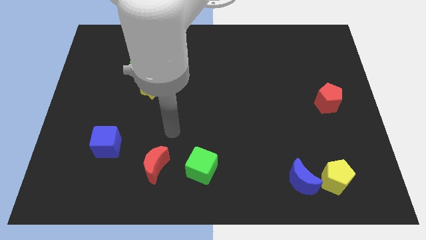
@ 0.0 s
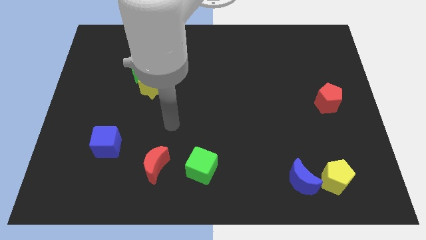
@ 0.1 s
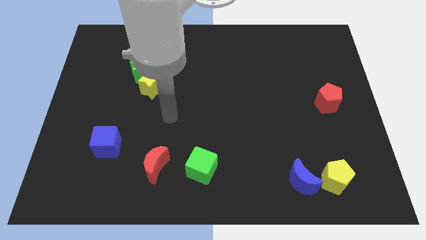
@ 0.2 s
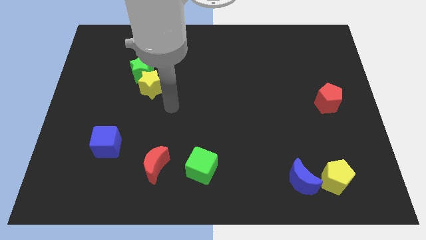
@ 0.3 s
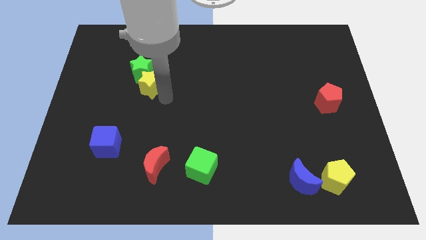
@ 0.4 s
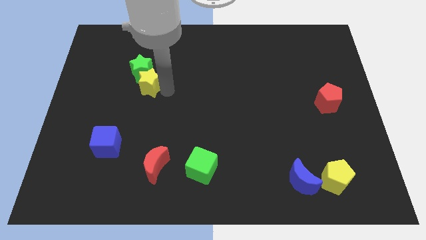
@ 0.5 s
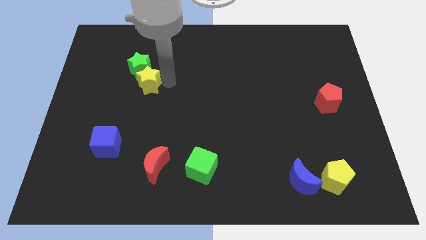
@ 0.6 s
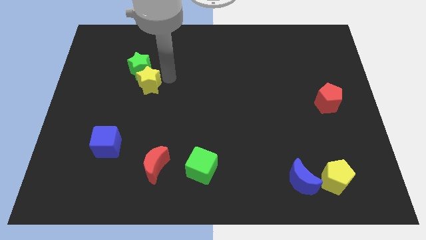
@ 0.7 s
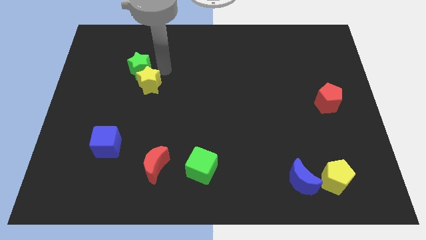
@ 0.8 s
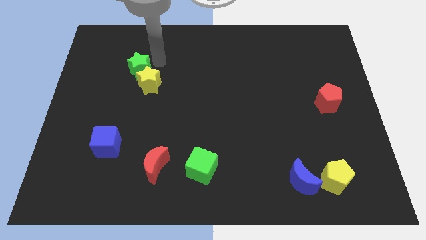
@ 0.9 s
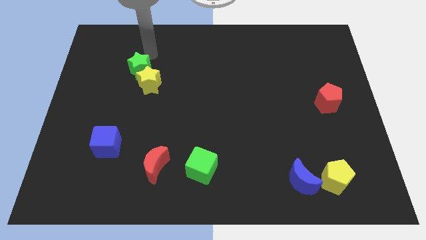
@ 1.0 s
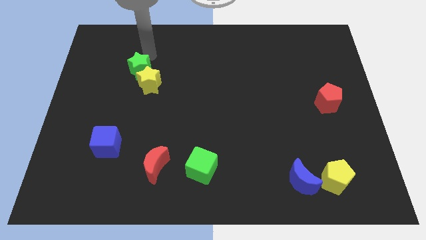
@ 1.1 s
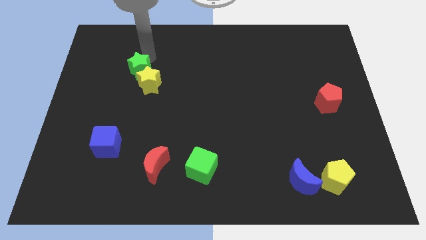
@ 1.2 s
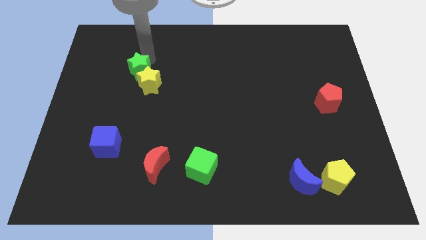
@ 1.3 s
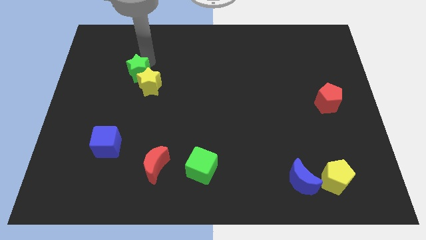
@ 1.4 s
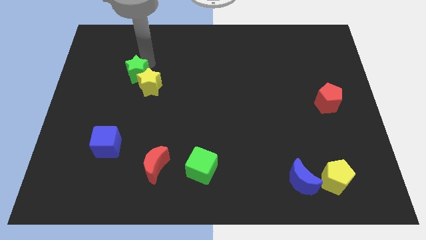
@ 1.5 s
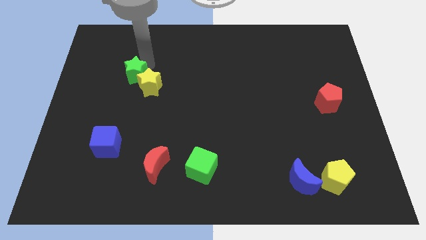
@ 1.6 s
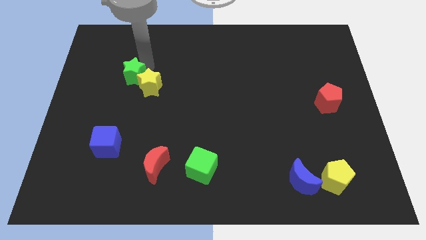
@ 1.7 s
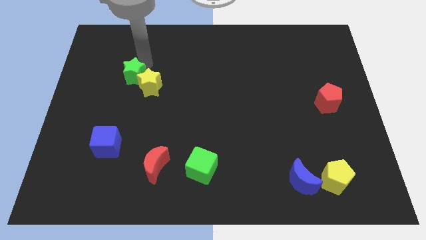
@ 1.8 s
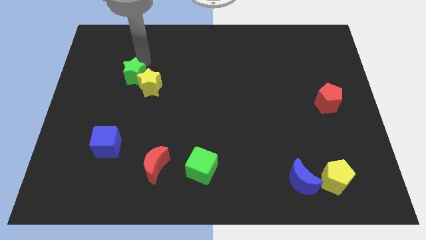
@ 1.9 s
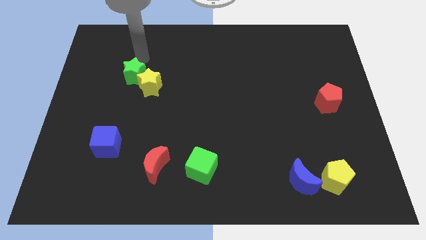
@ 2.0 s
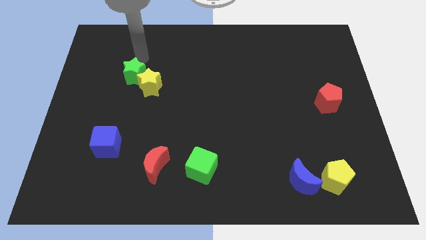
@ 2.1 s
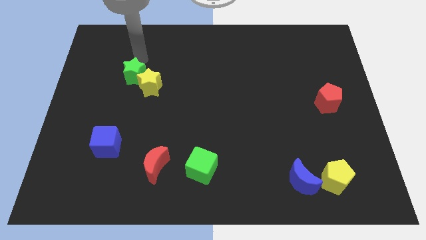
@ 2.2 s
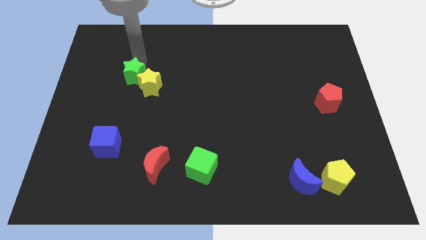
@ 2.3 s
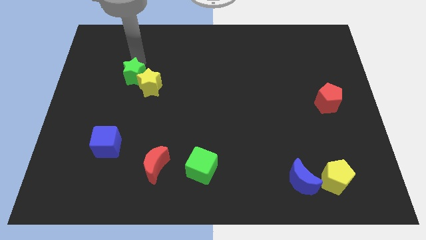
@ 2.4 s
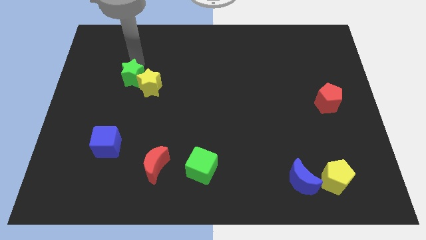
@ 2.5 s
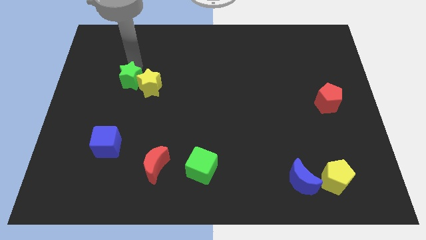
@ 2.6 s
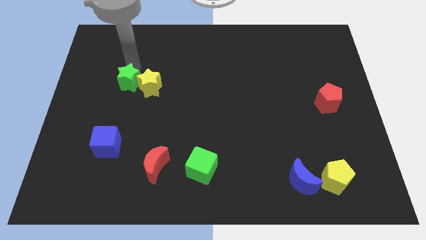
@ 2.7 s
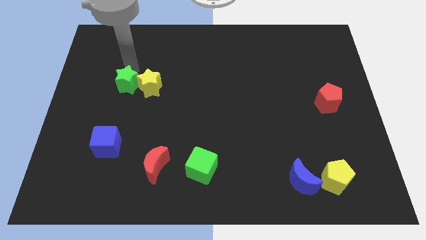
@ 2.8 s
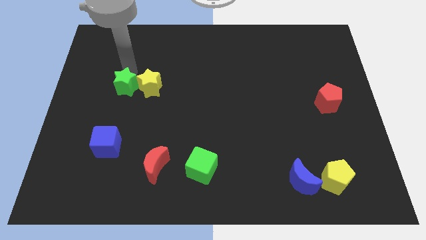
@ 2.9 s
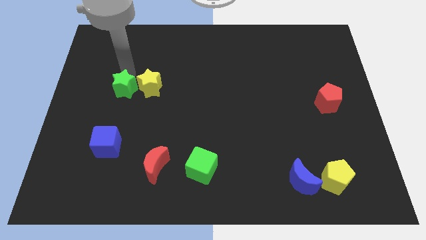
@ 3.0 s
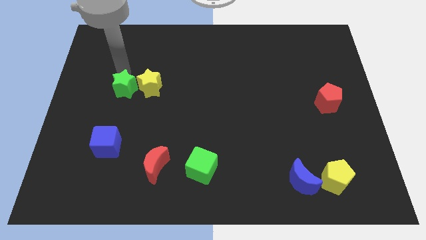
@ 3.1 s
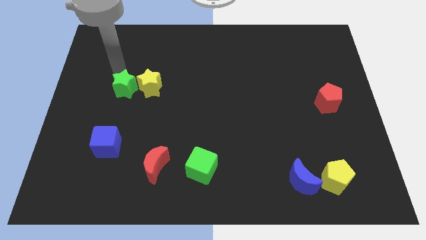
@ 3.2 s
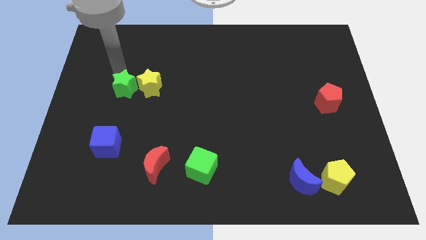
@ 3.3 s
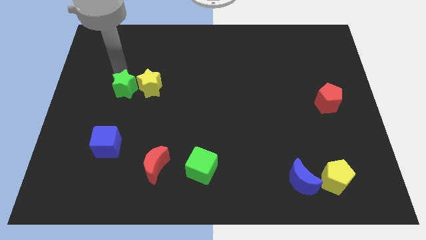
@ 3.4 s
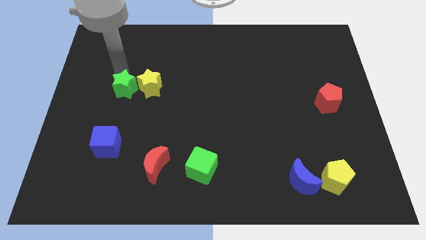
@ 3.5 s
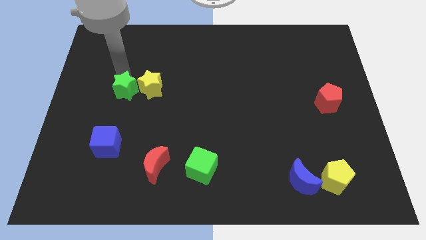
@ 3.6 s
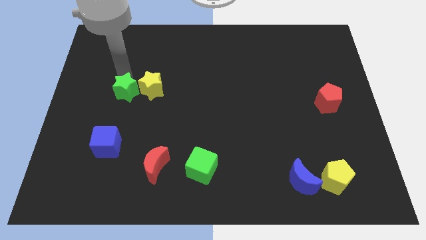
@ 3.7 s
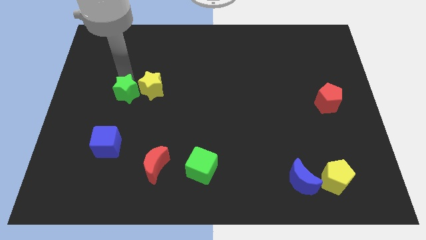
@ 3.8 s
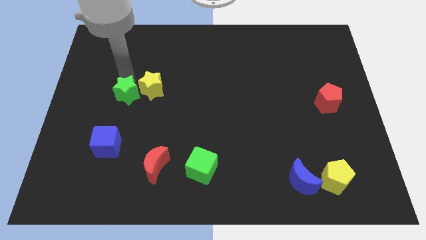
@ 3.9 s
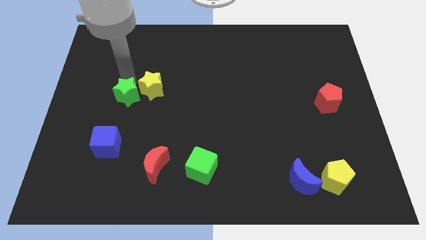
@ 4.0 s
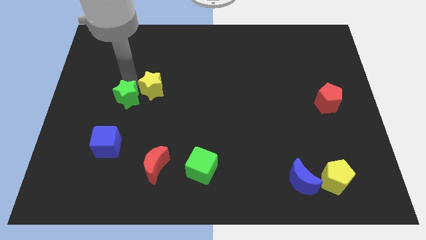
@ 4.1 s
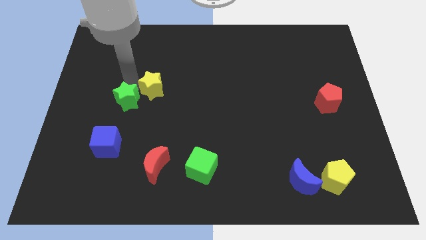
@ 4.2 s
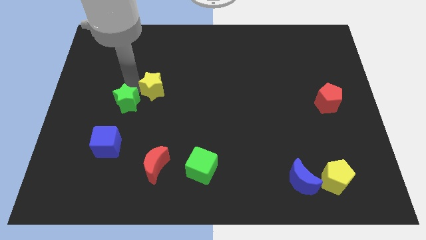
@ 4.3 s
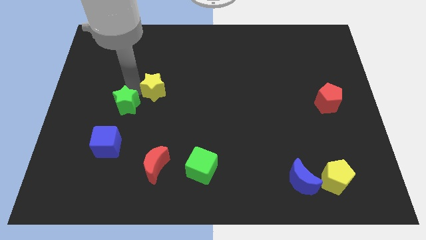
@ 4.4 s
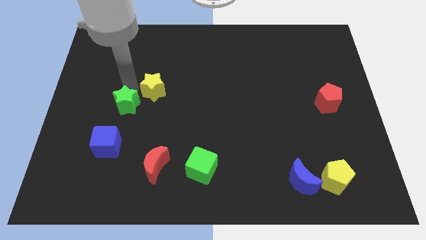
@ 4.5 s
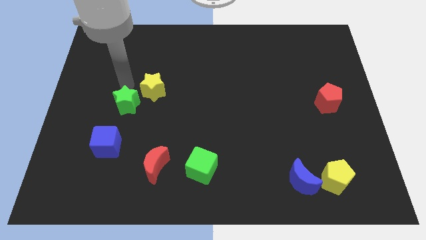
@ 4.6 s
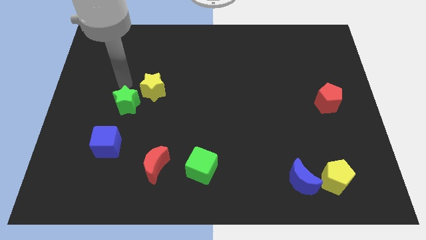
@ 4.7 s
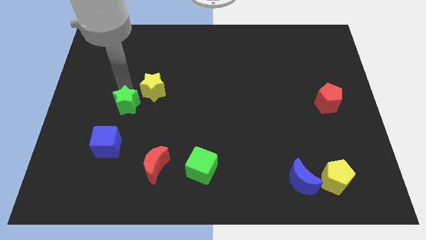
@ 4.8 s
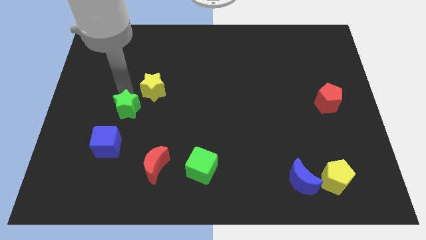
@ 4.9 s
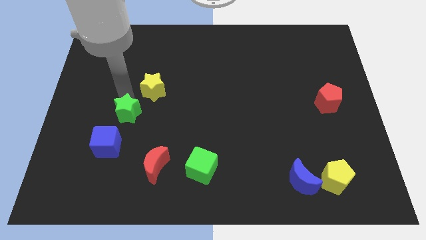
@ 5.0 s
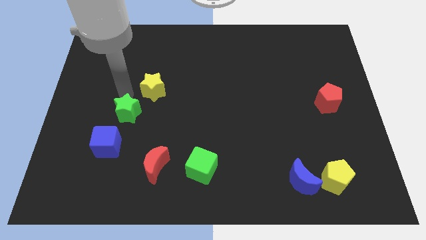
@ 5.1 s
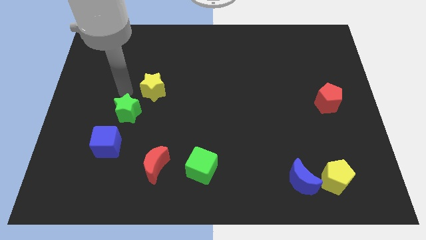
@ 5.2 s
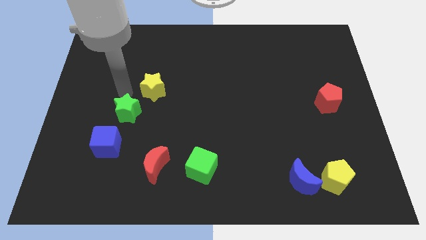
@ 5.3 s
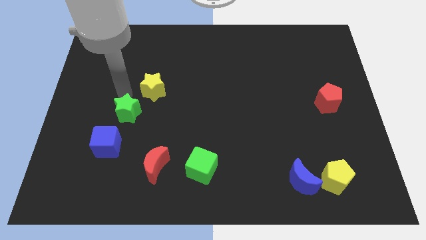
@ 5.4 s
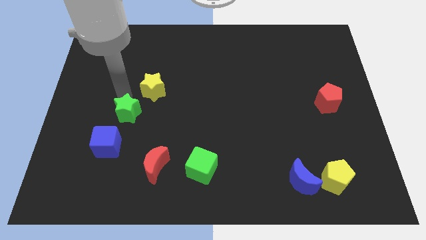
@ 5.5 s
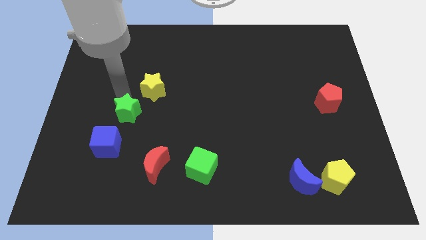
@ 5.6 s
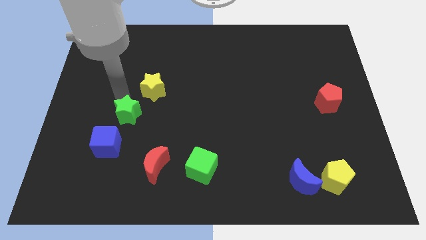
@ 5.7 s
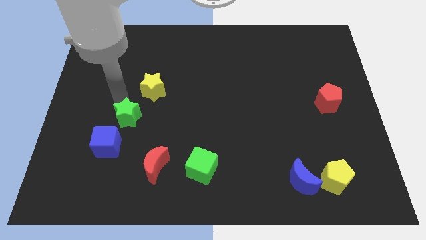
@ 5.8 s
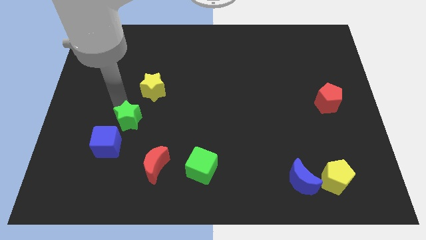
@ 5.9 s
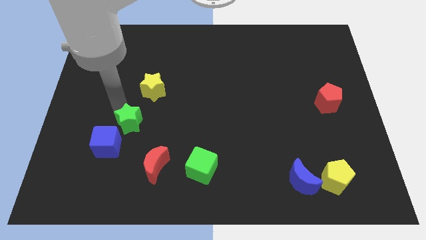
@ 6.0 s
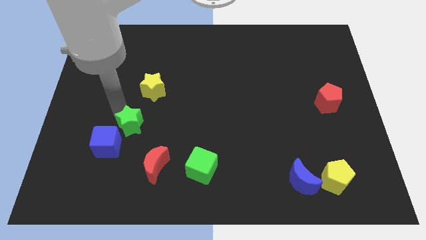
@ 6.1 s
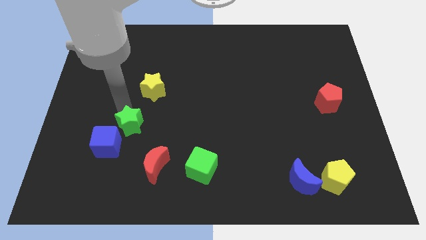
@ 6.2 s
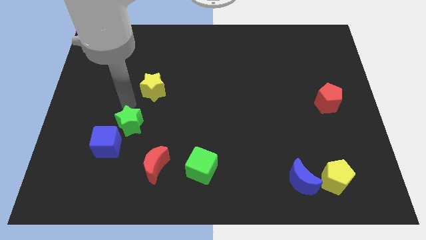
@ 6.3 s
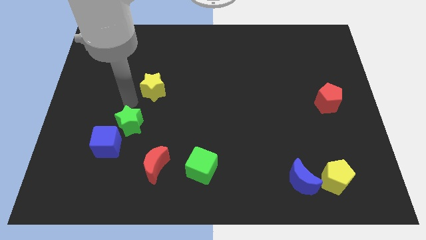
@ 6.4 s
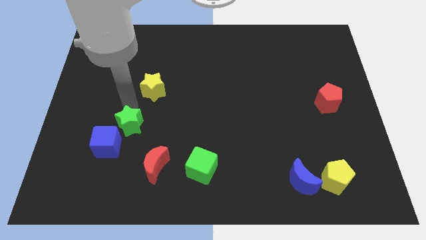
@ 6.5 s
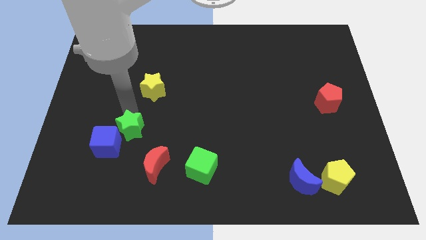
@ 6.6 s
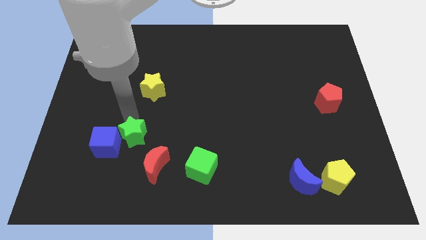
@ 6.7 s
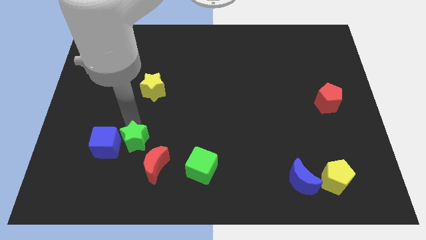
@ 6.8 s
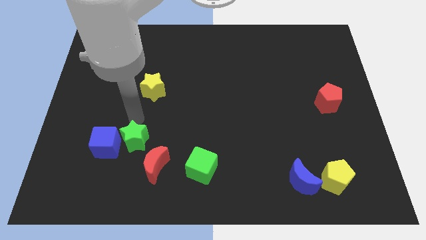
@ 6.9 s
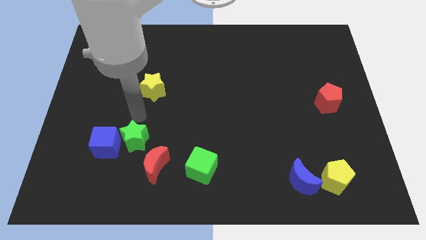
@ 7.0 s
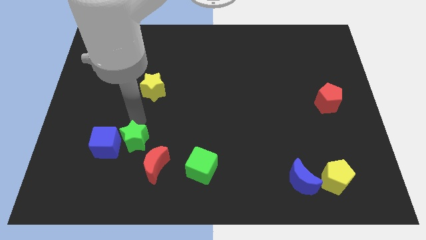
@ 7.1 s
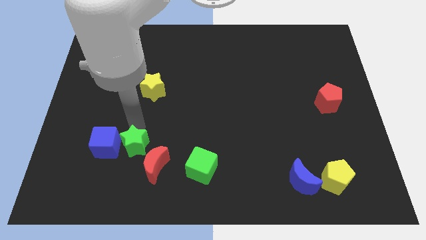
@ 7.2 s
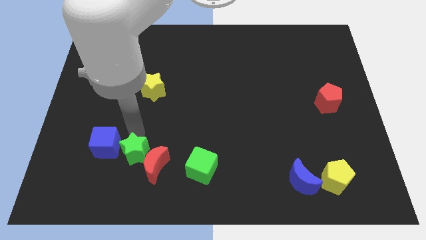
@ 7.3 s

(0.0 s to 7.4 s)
move the green star to the left of the green cube
